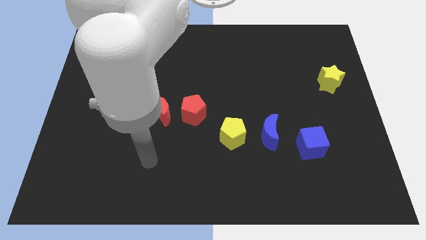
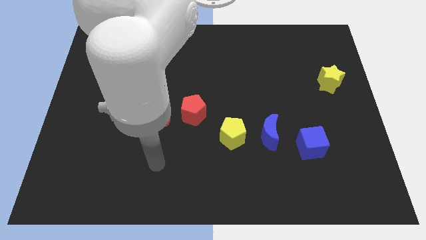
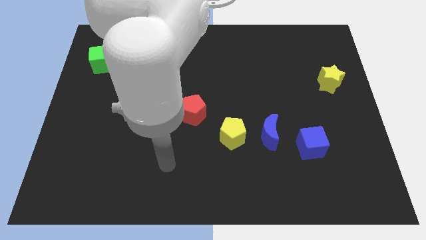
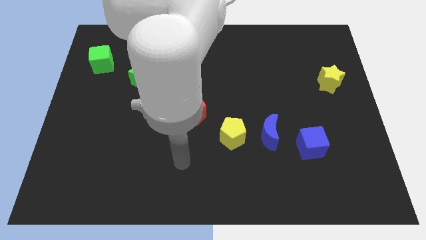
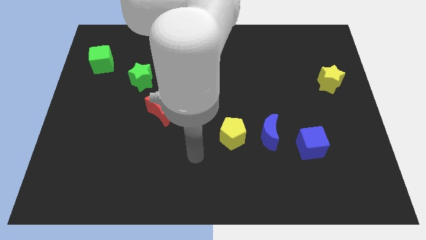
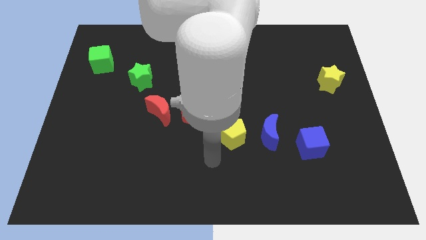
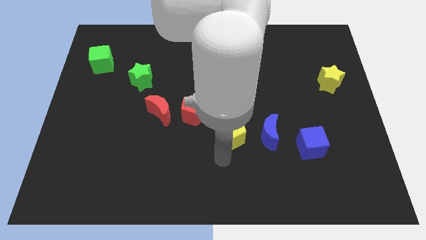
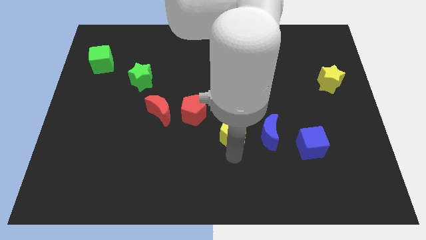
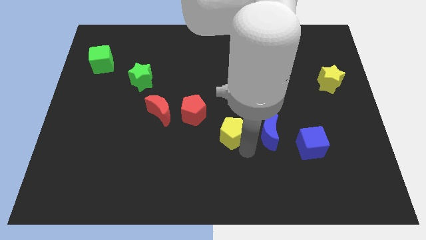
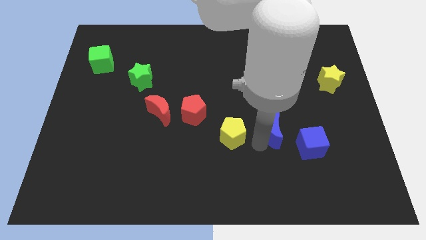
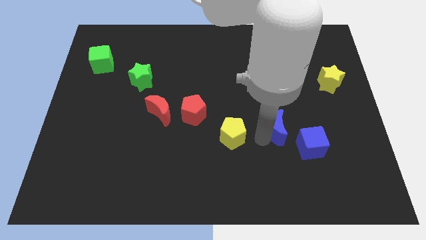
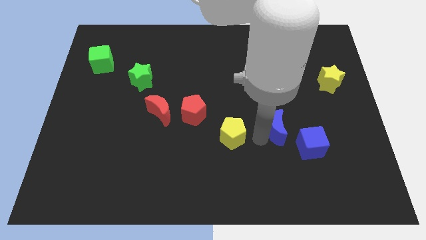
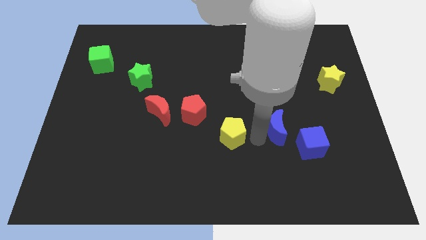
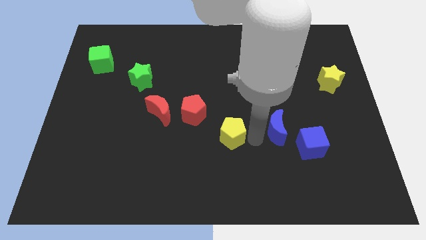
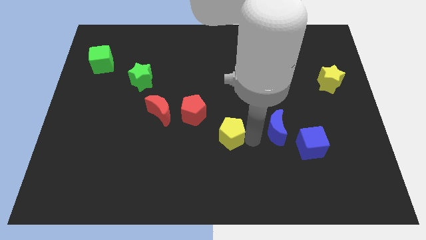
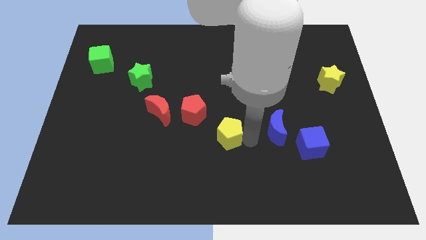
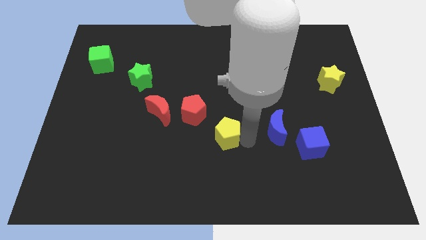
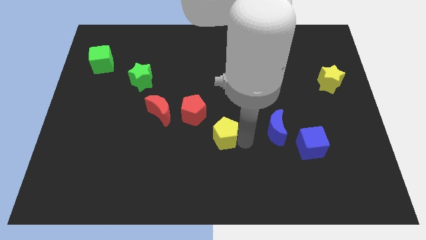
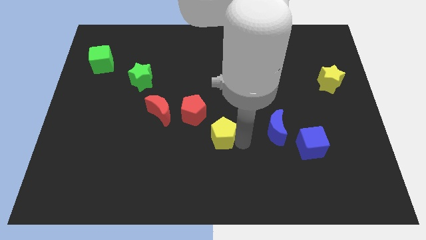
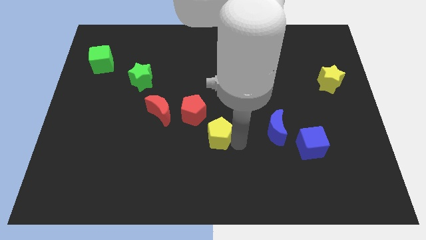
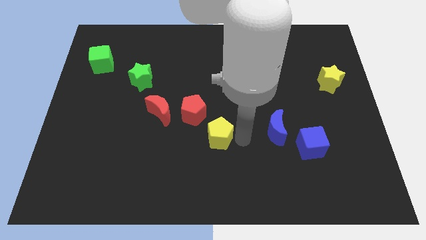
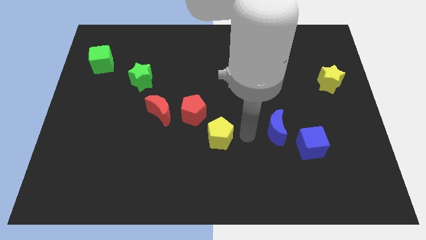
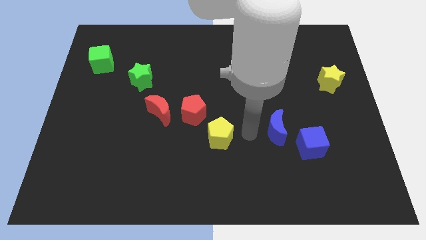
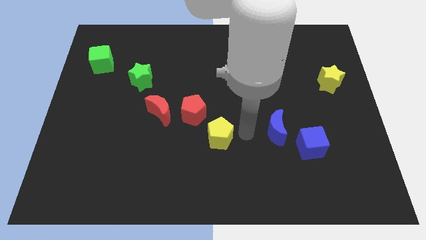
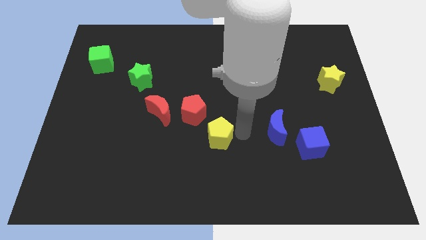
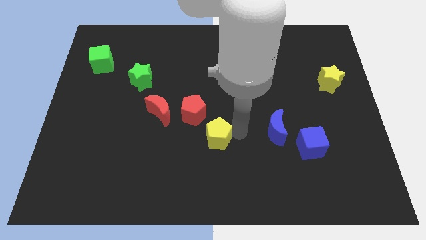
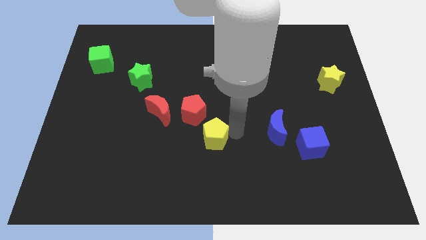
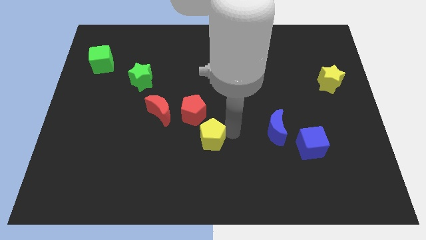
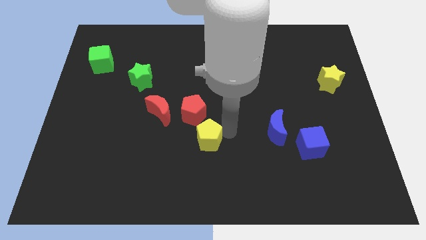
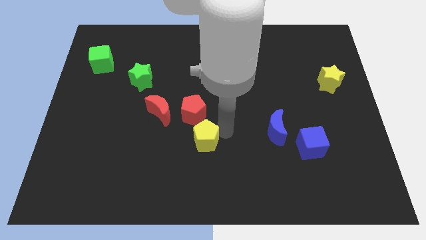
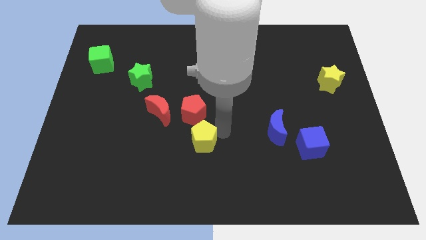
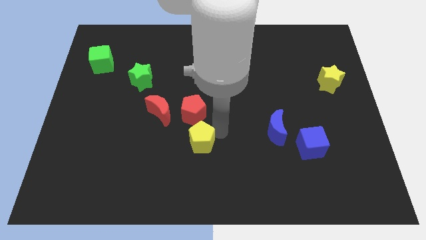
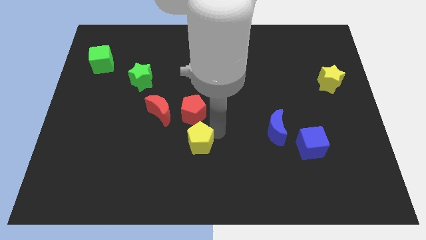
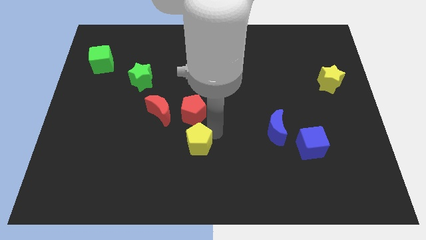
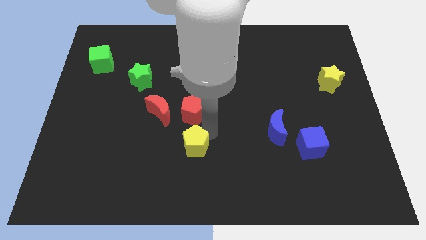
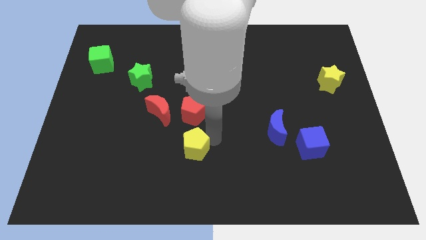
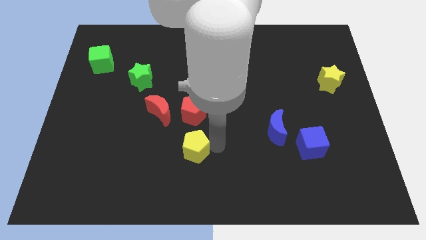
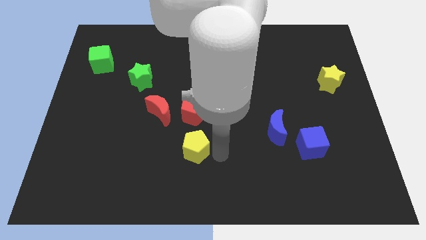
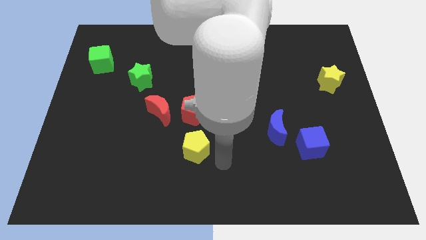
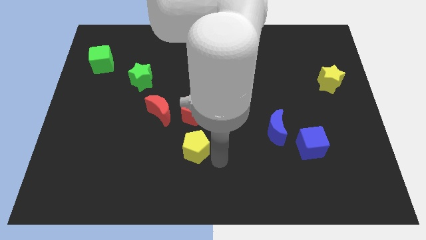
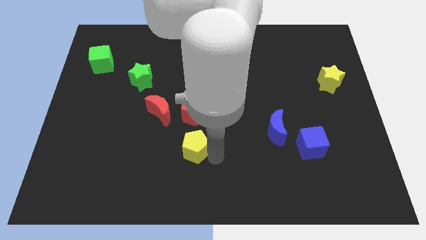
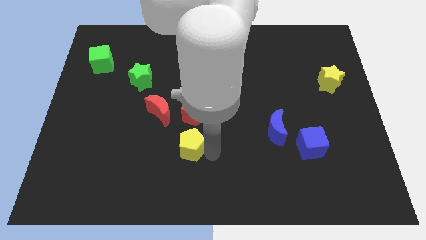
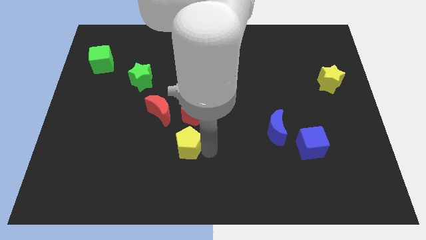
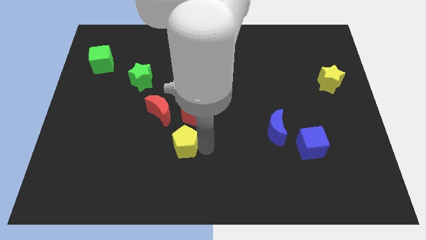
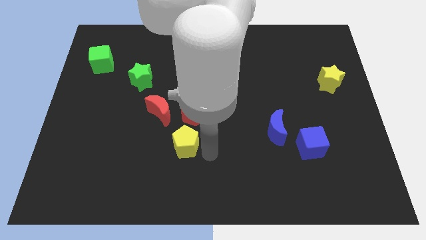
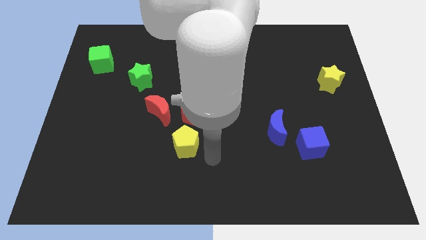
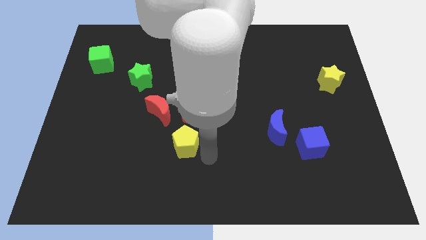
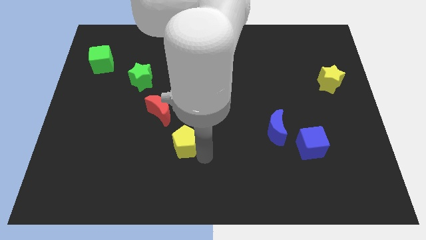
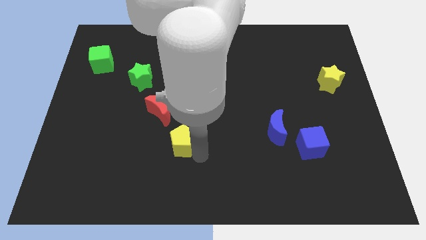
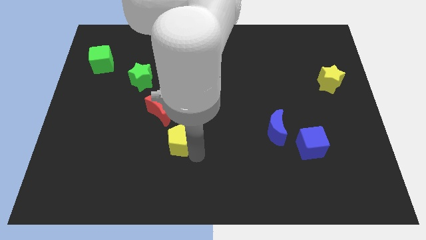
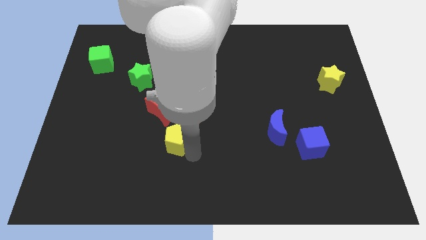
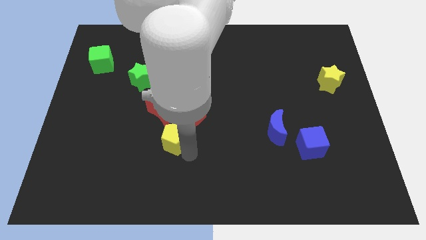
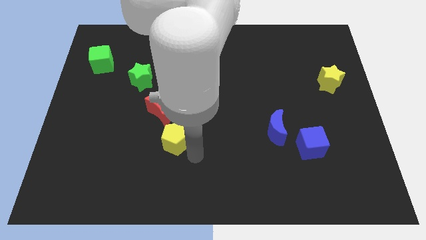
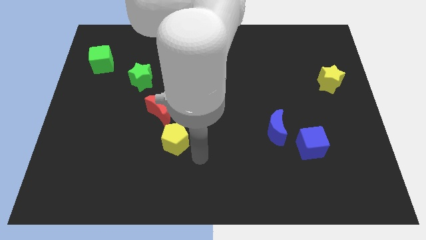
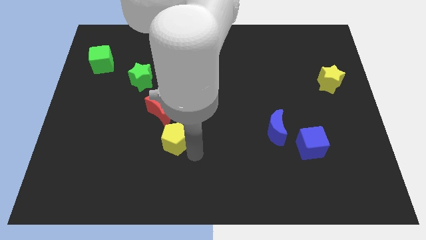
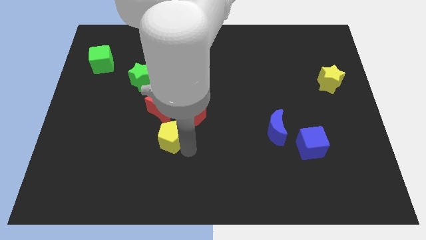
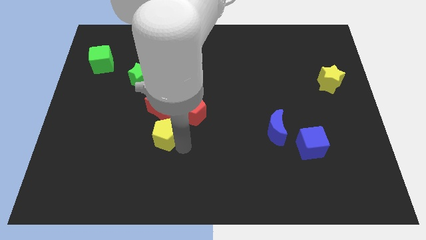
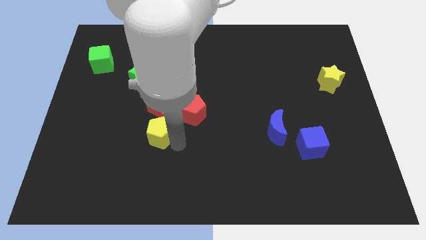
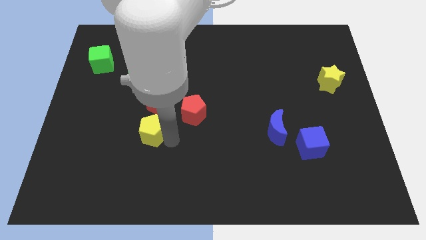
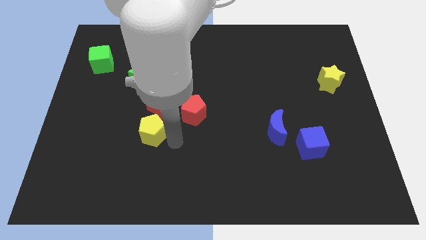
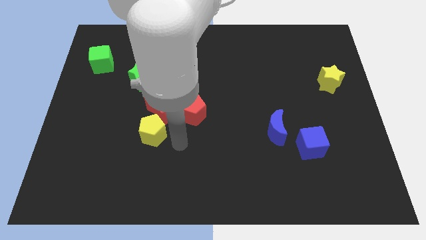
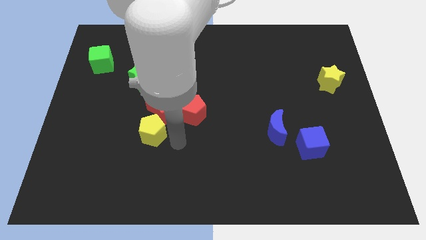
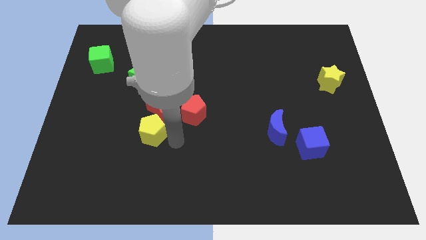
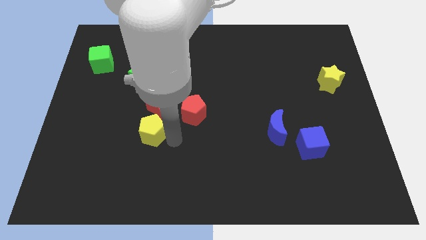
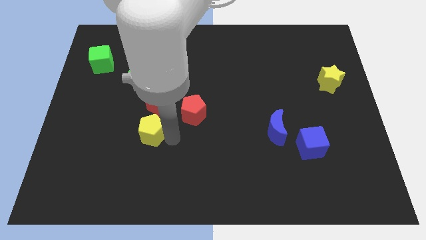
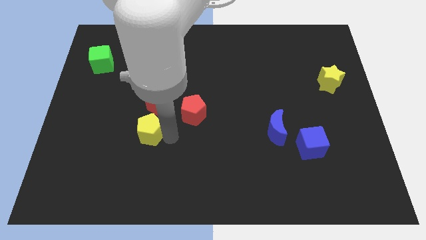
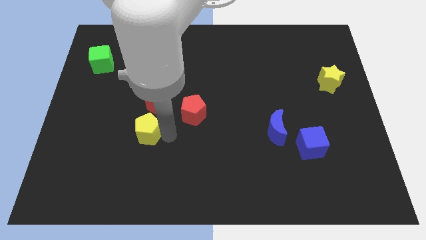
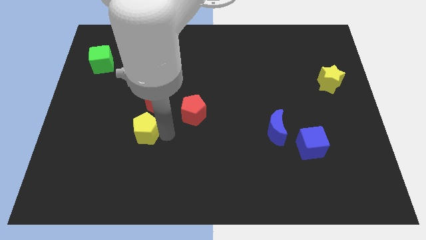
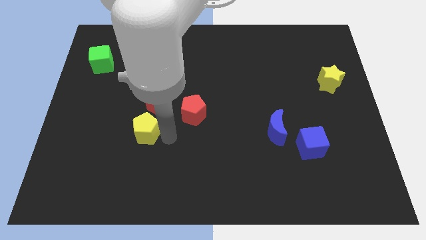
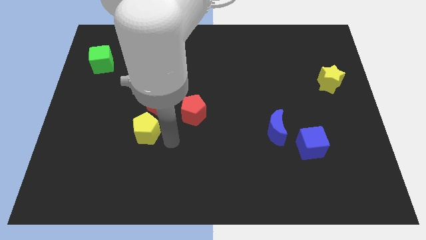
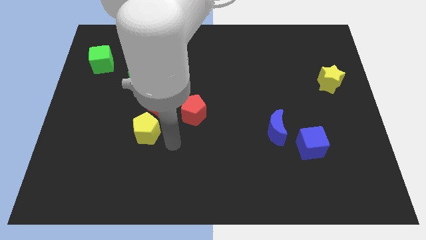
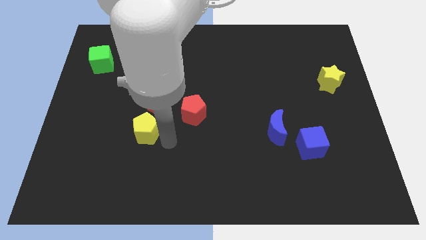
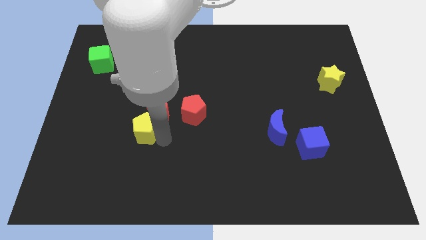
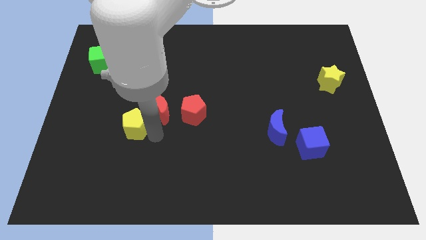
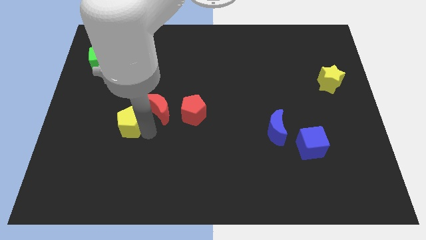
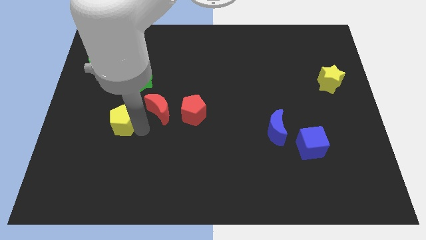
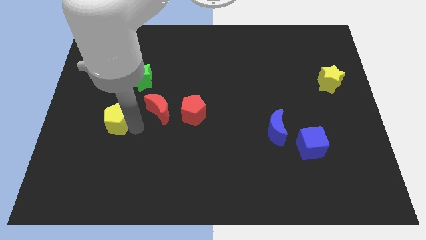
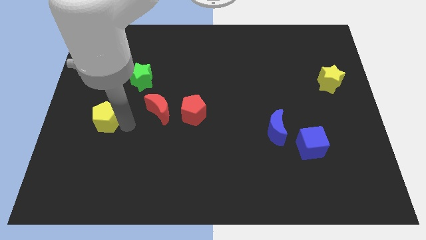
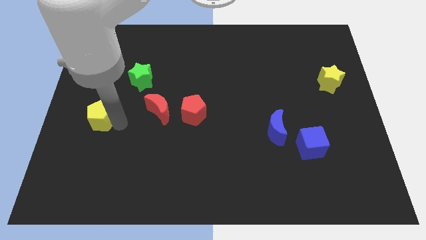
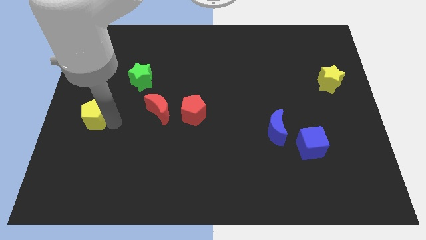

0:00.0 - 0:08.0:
push the yellow pentagon to the left side
